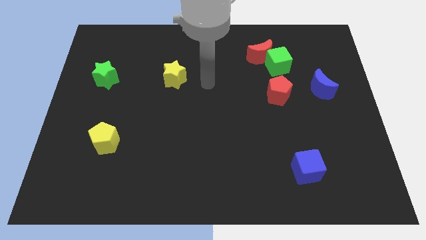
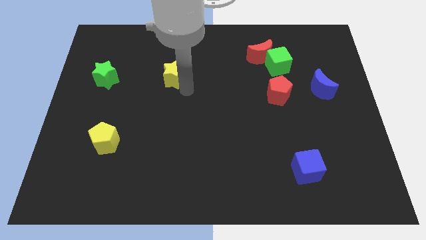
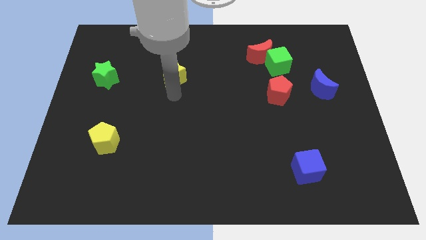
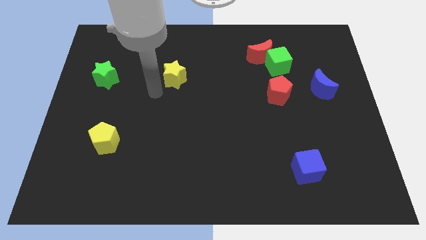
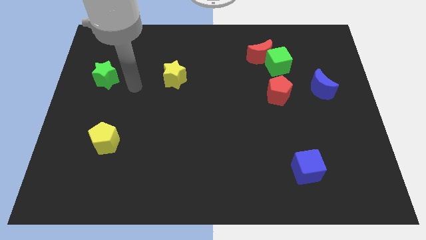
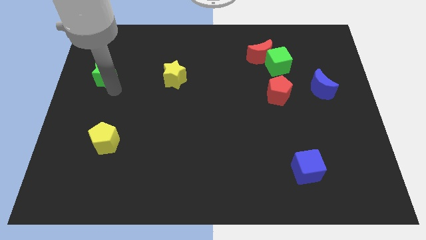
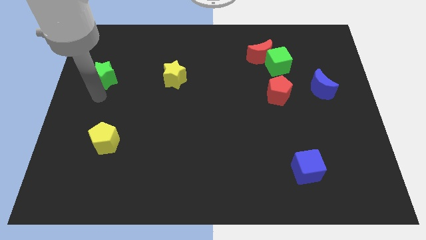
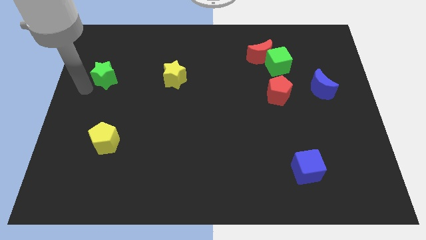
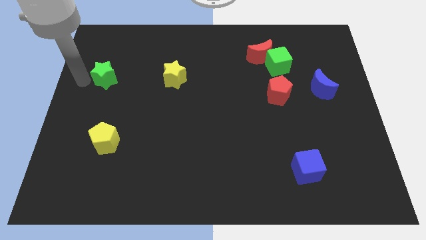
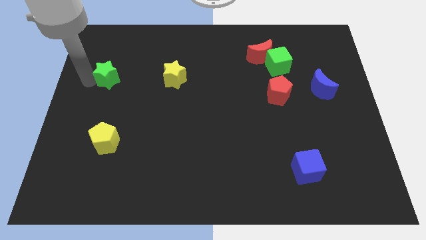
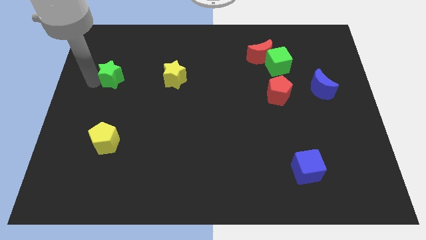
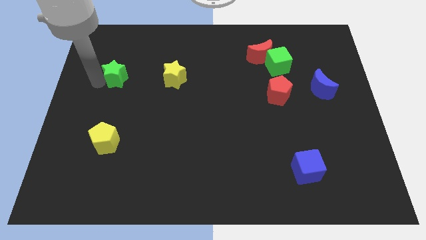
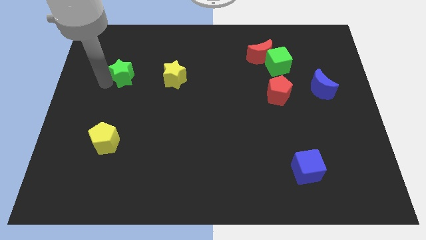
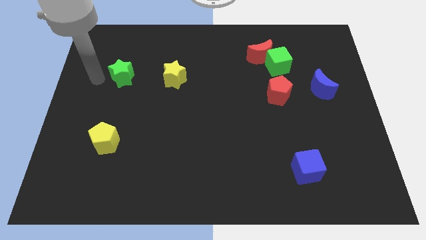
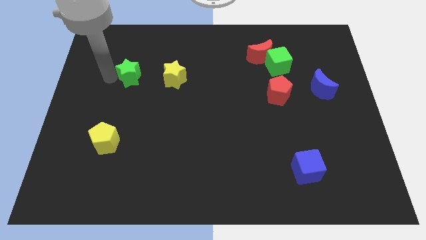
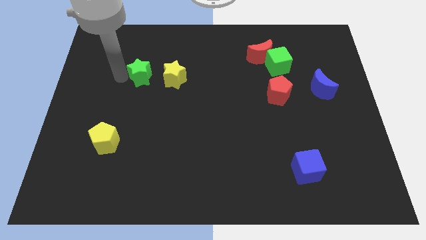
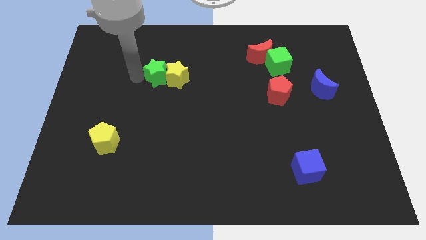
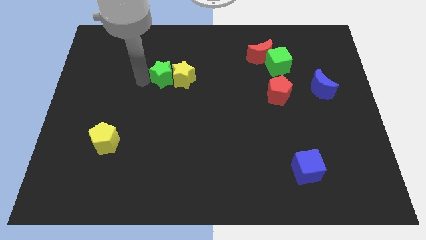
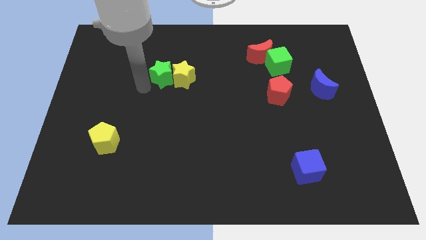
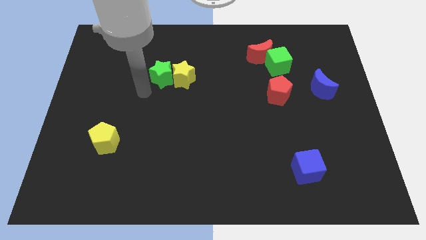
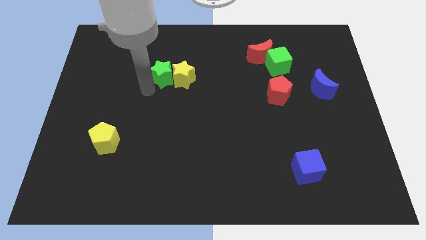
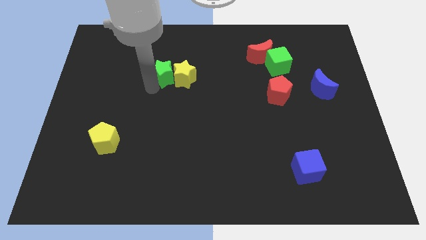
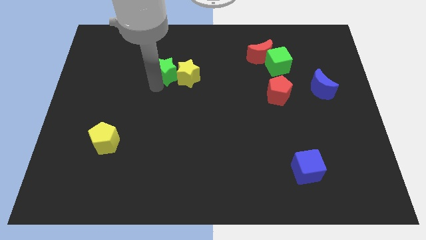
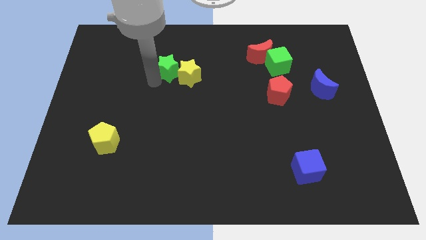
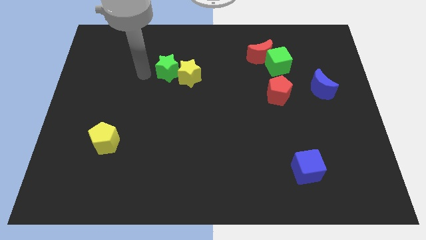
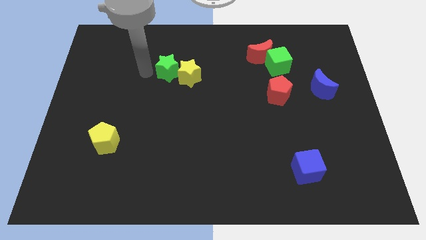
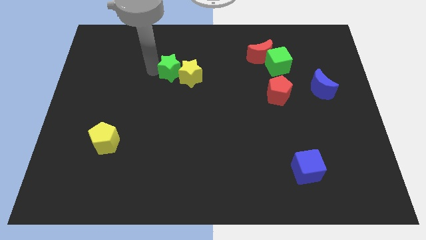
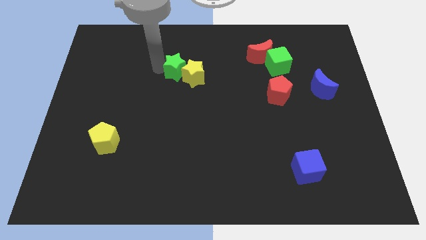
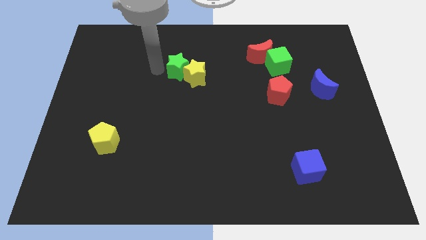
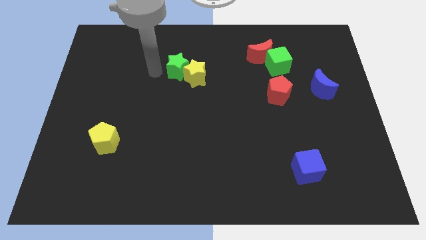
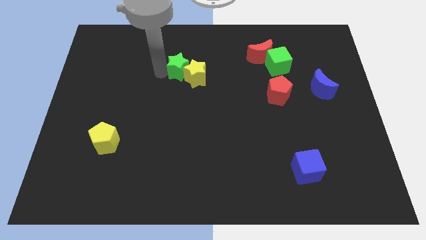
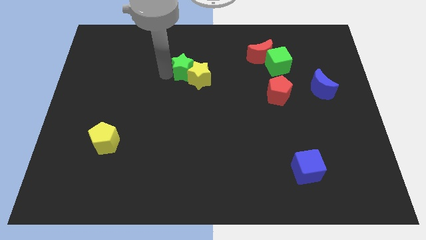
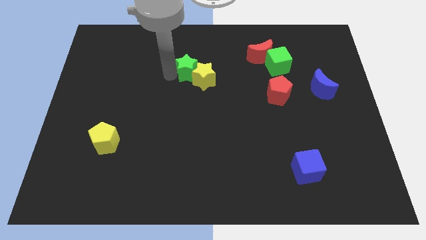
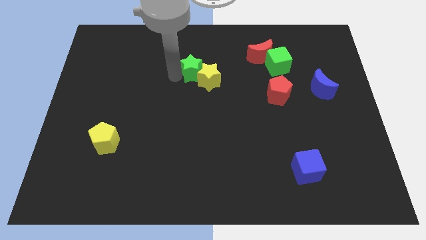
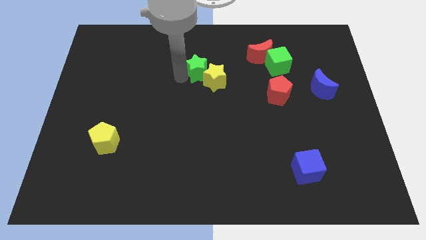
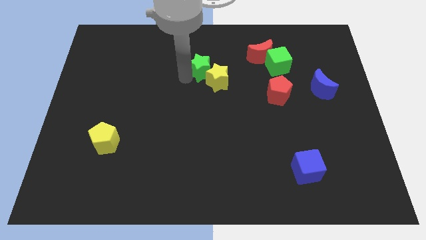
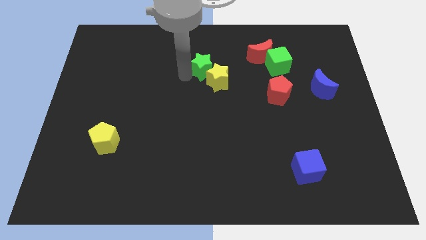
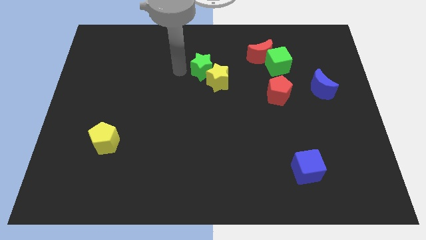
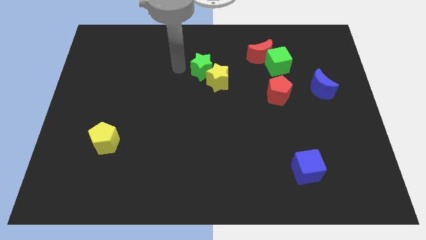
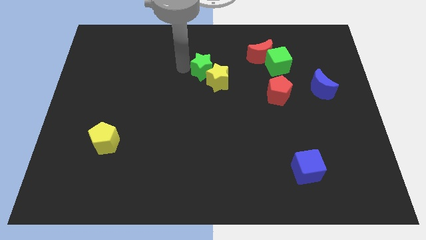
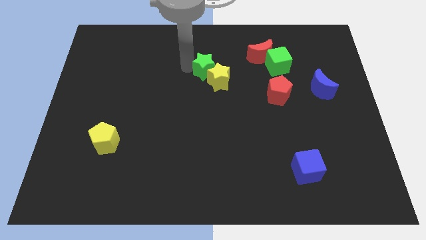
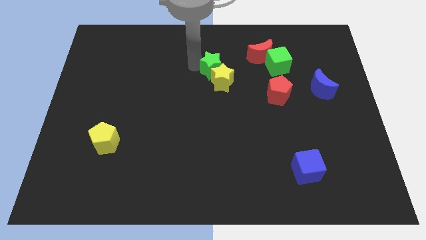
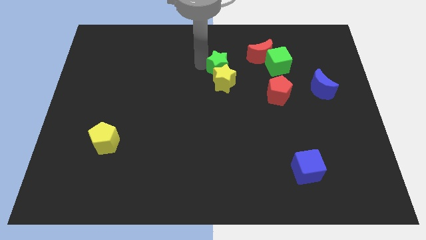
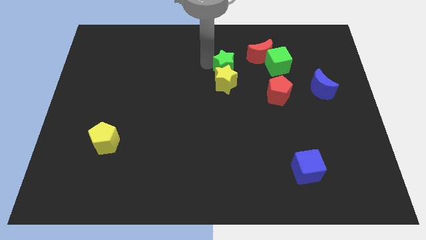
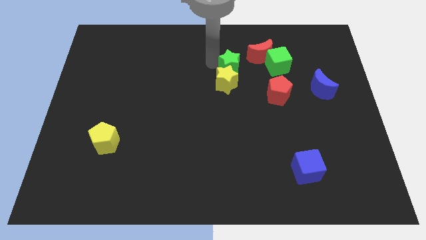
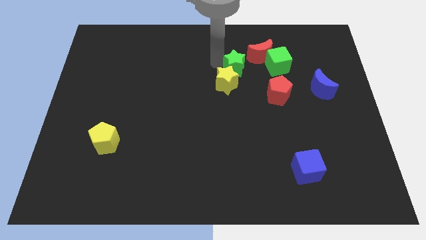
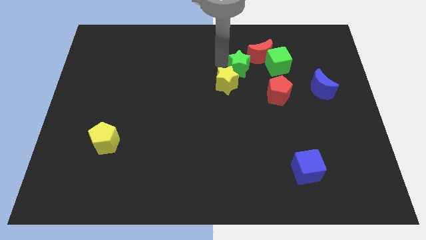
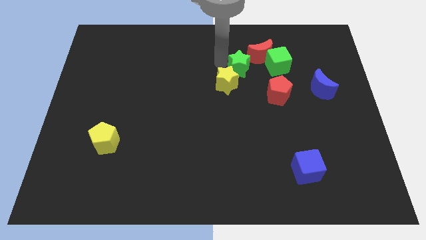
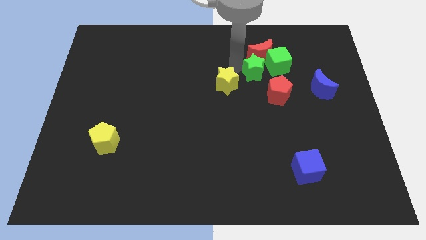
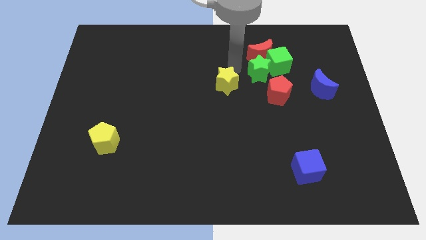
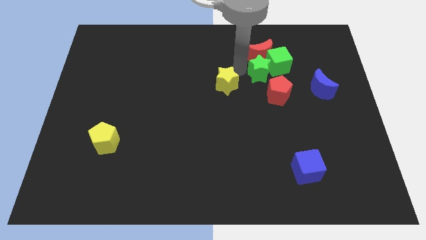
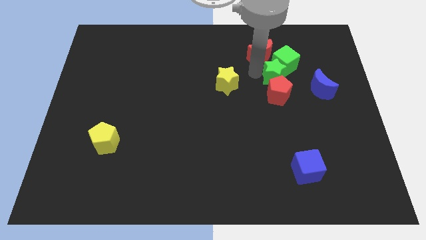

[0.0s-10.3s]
put the green star to the top right side of the red pentagon

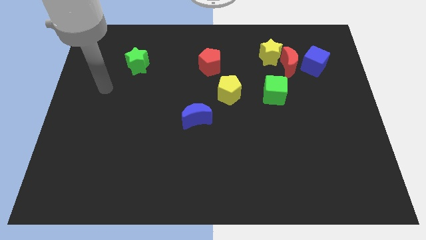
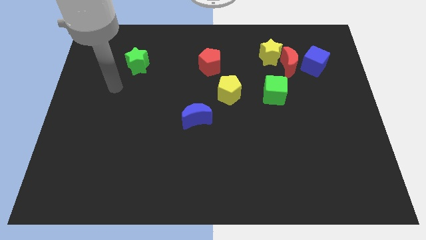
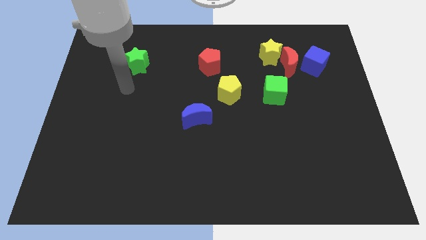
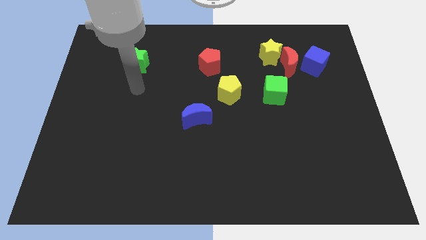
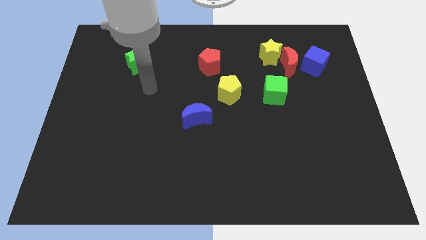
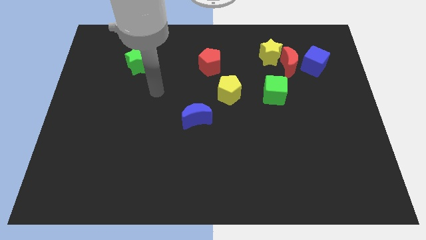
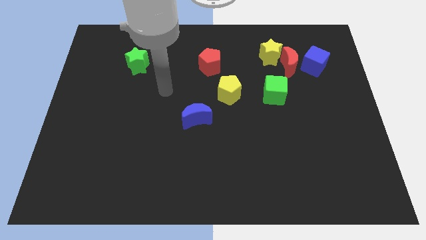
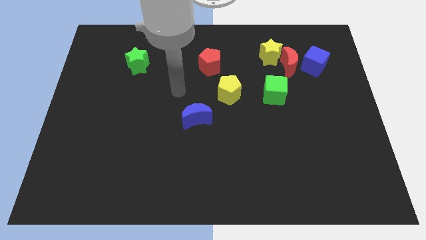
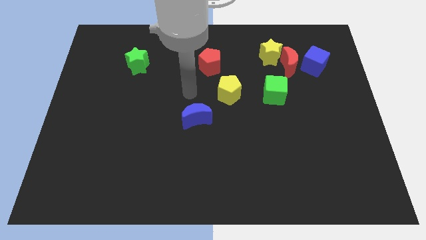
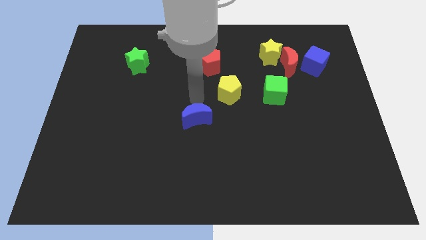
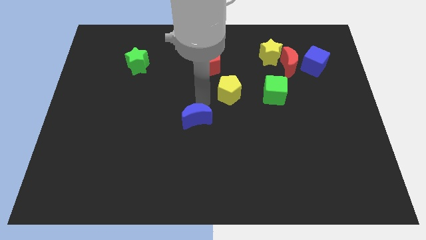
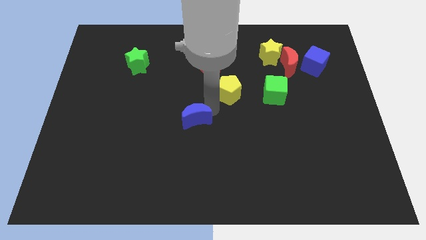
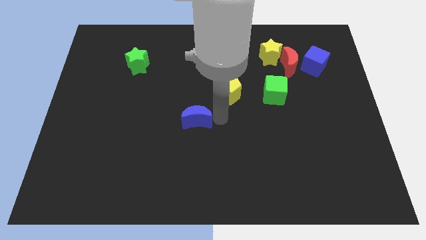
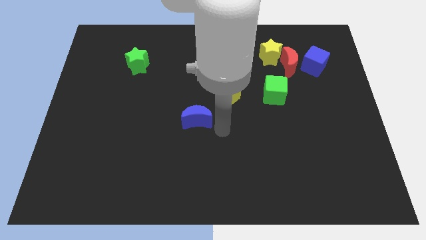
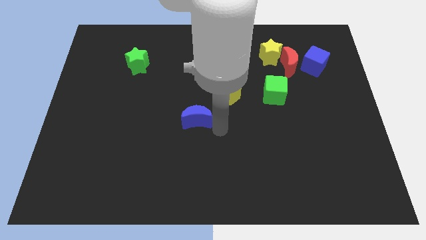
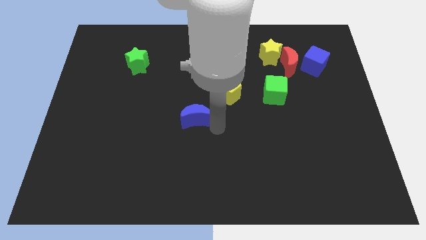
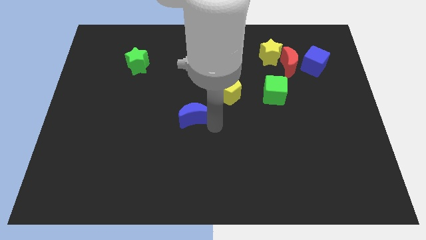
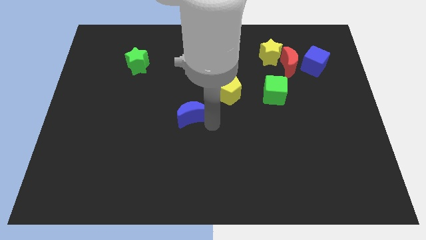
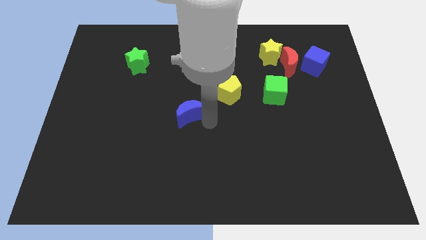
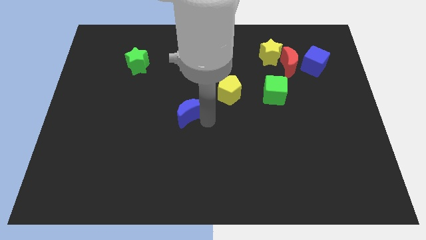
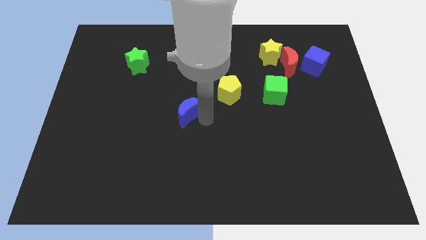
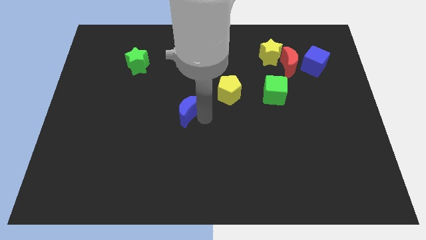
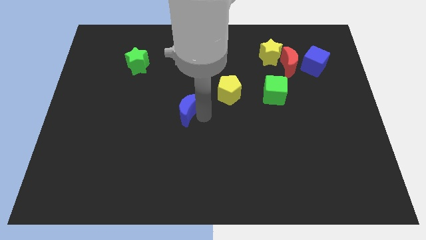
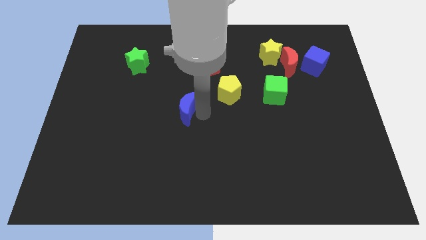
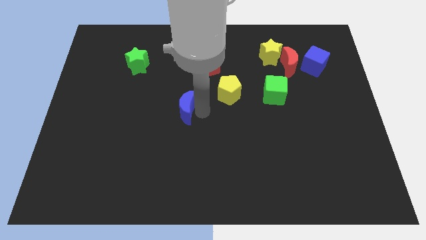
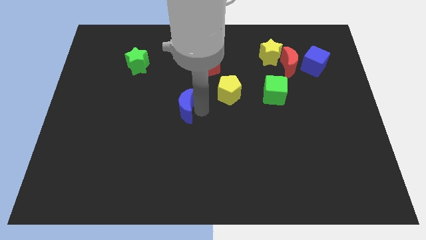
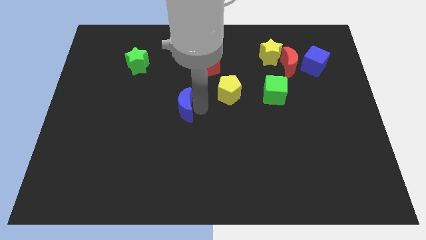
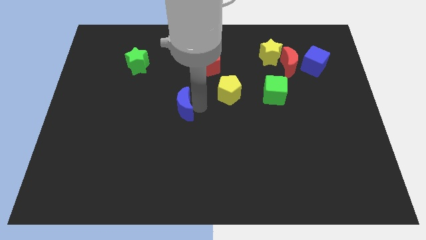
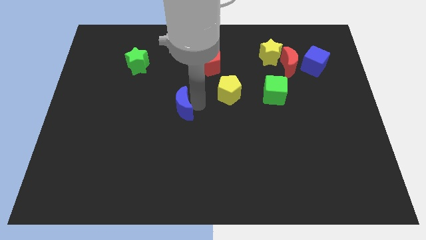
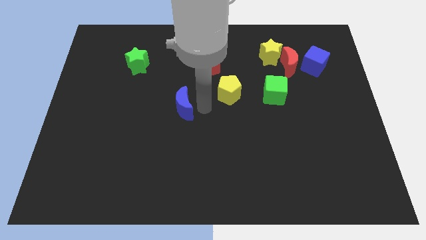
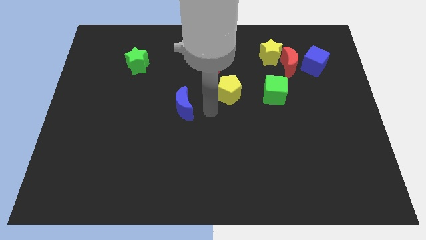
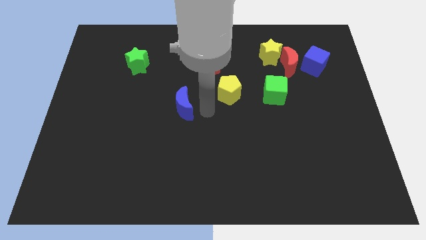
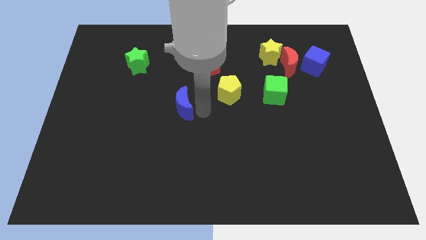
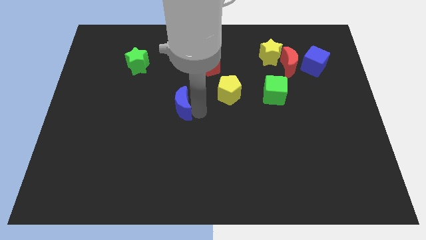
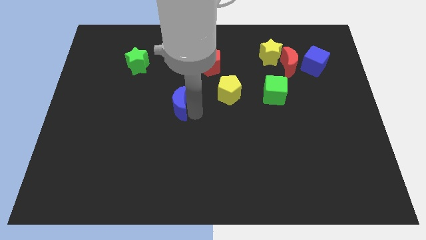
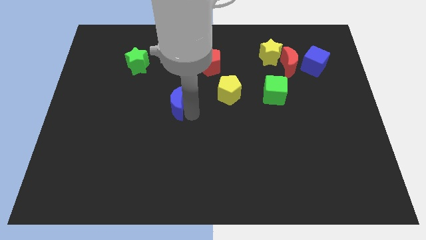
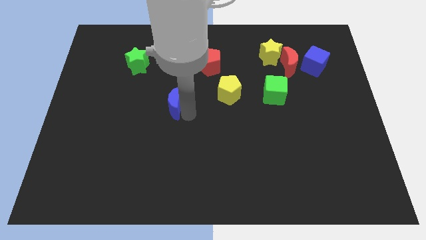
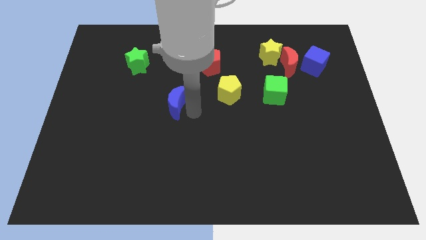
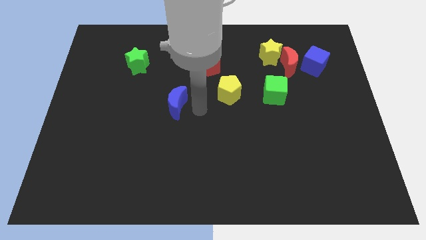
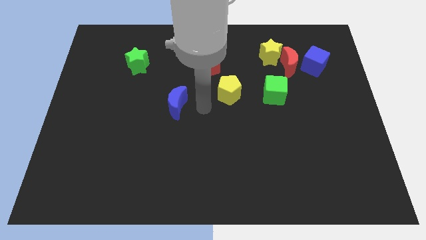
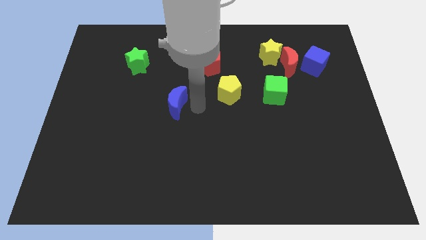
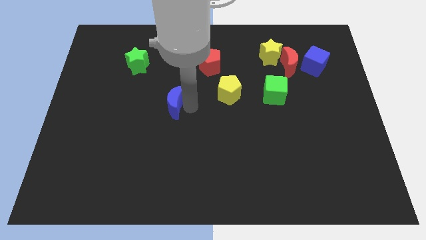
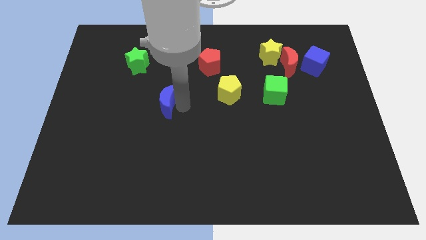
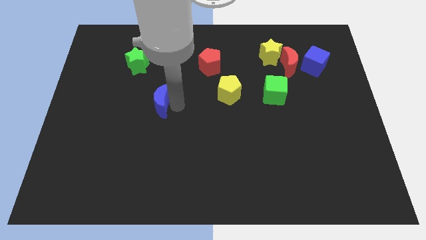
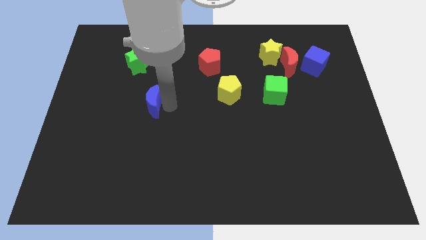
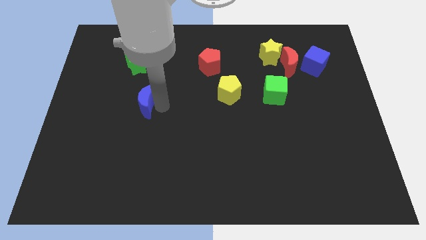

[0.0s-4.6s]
put the blue moon to the bottom side of the green star
